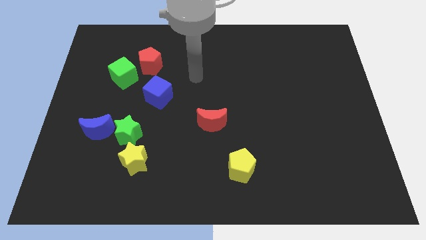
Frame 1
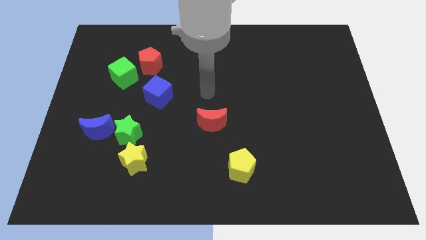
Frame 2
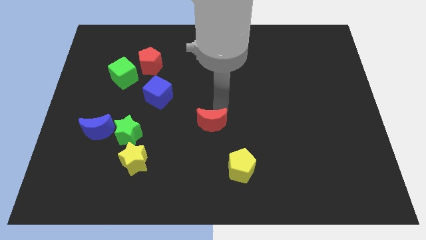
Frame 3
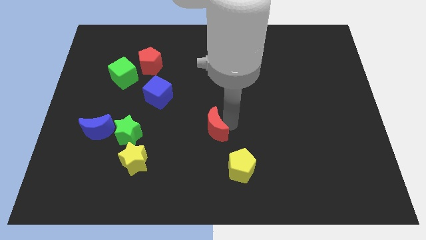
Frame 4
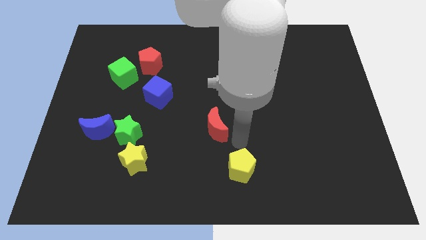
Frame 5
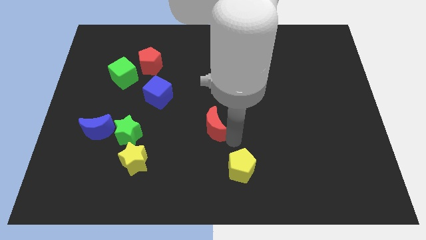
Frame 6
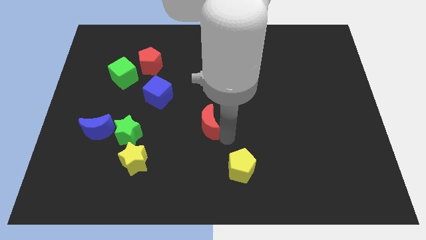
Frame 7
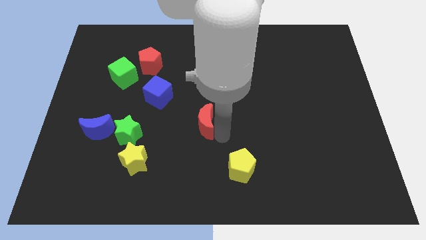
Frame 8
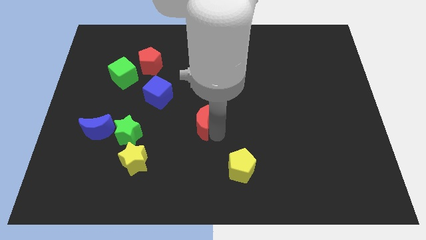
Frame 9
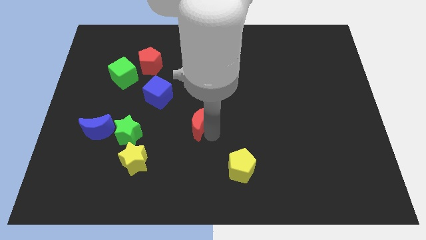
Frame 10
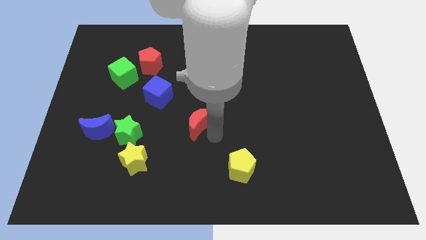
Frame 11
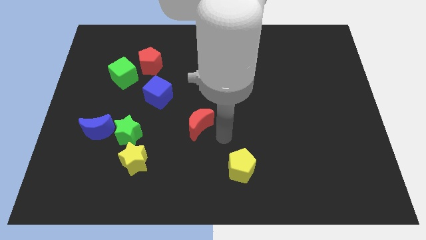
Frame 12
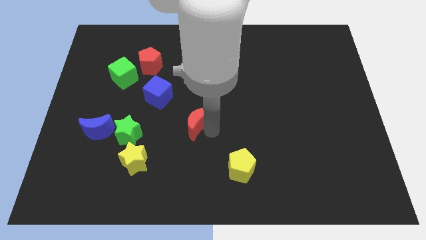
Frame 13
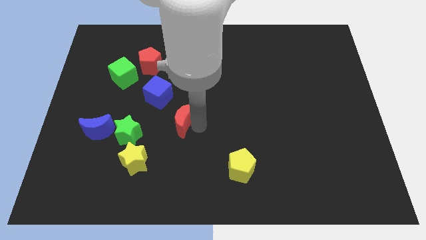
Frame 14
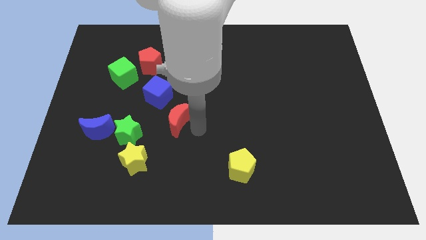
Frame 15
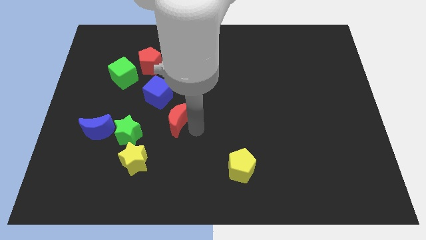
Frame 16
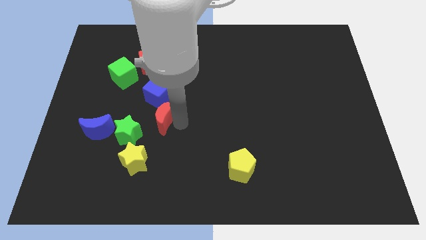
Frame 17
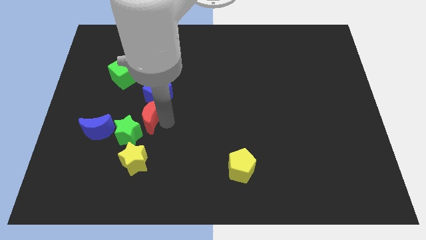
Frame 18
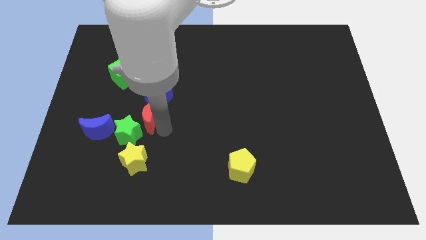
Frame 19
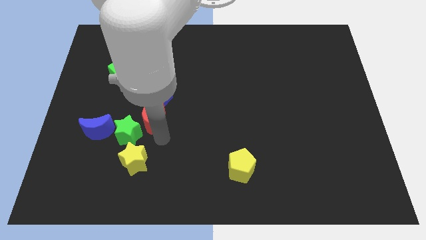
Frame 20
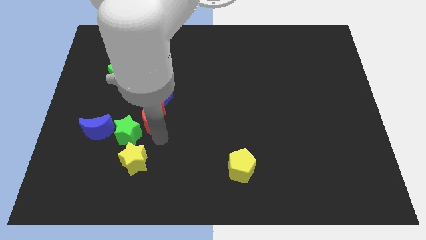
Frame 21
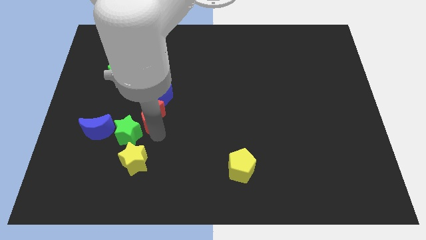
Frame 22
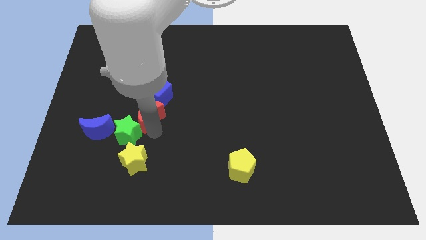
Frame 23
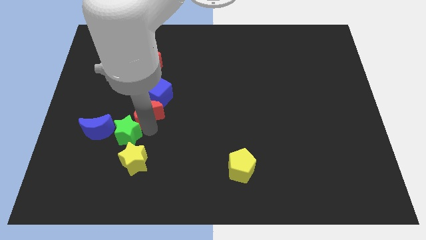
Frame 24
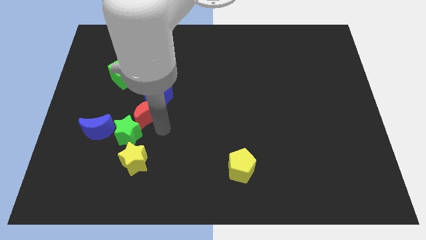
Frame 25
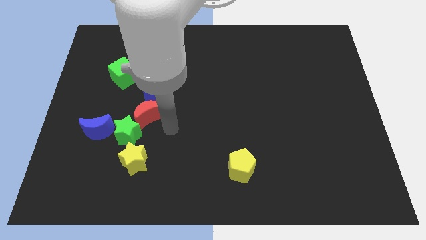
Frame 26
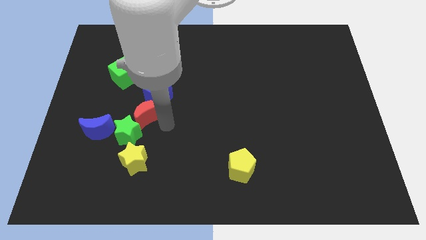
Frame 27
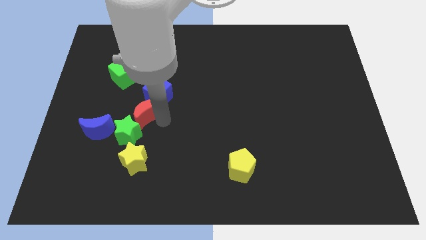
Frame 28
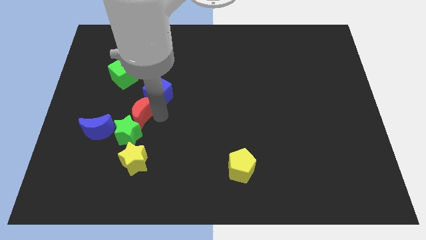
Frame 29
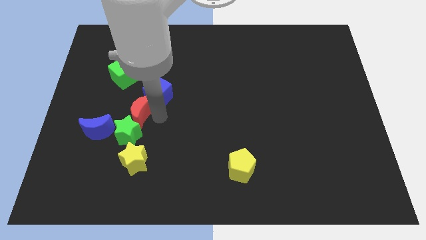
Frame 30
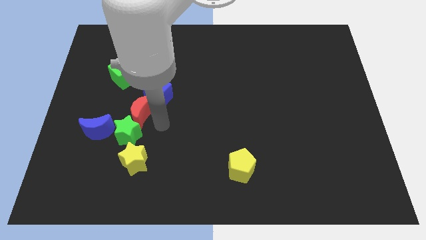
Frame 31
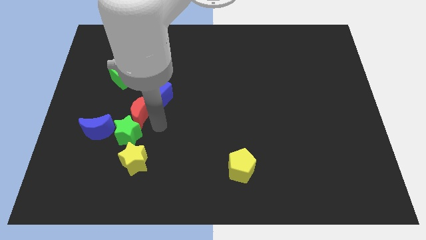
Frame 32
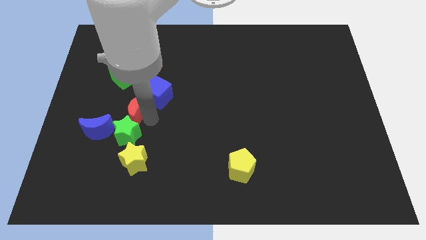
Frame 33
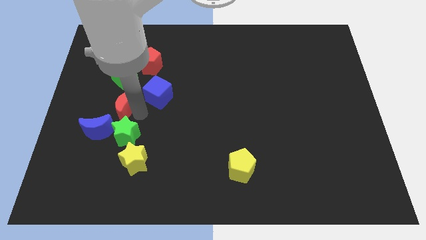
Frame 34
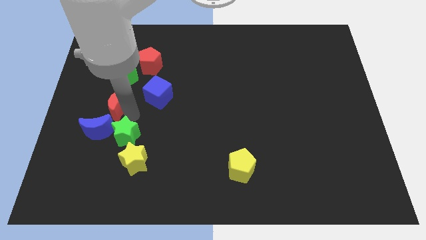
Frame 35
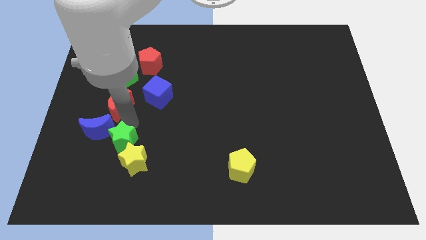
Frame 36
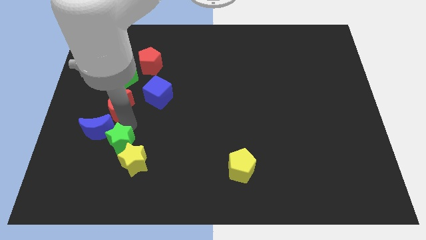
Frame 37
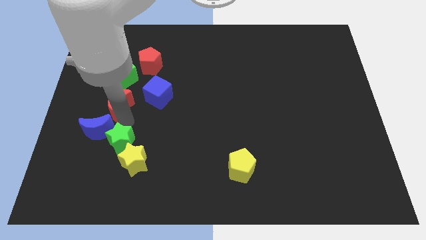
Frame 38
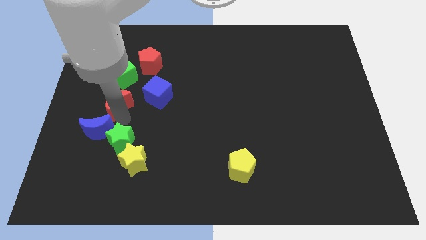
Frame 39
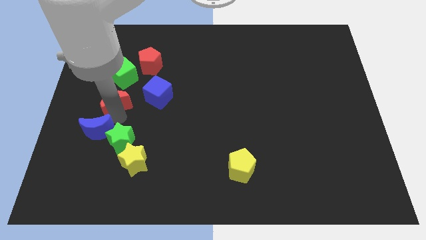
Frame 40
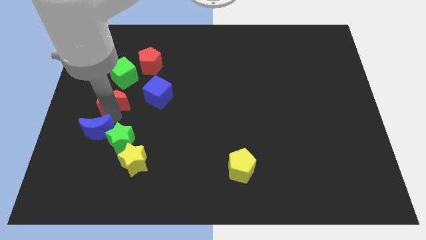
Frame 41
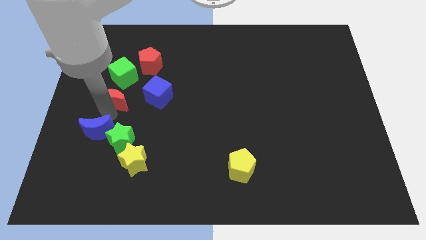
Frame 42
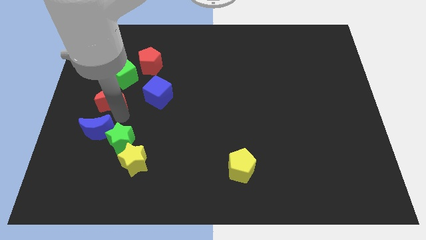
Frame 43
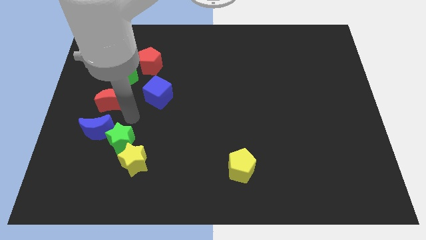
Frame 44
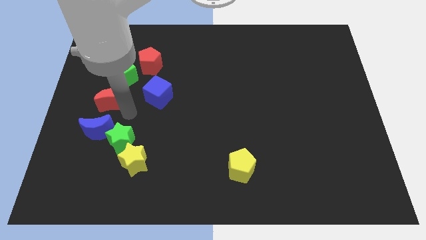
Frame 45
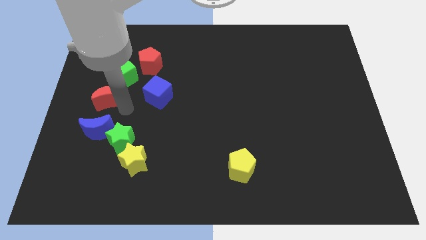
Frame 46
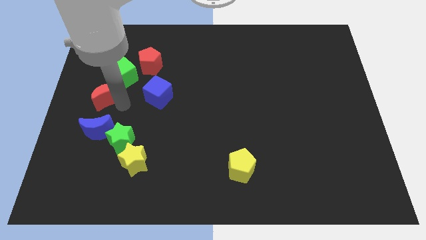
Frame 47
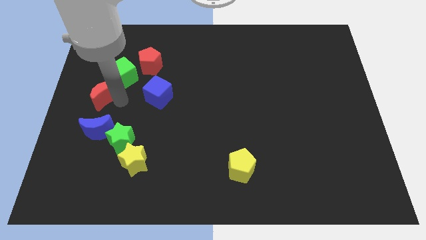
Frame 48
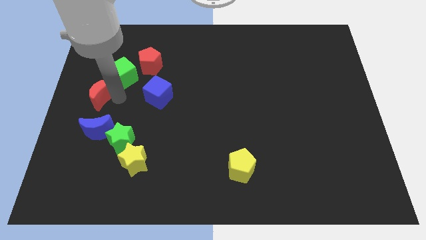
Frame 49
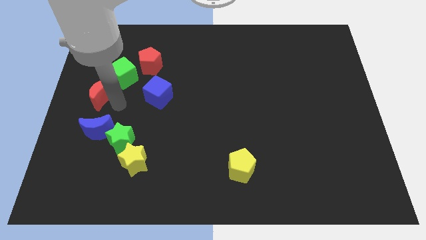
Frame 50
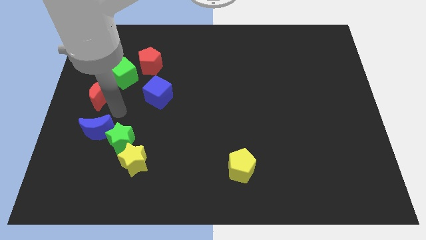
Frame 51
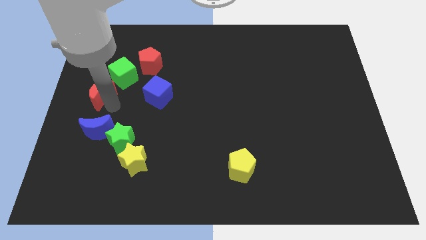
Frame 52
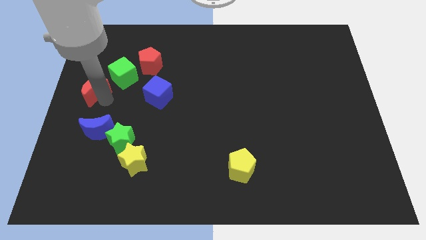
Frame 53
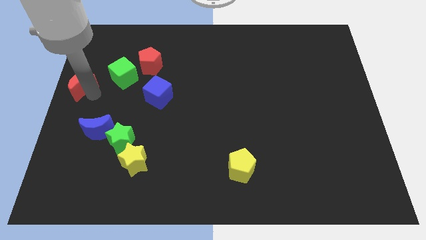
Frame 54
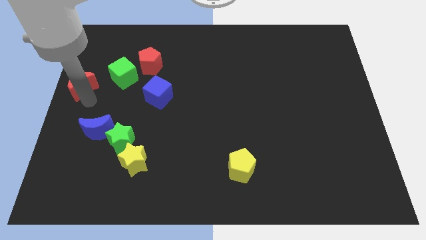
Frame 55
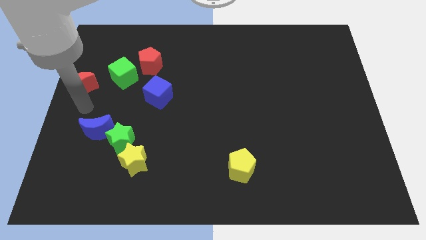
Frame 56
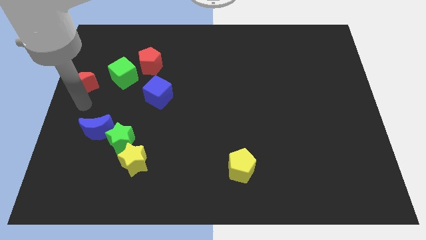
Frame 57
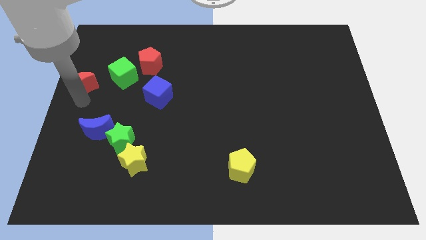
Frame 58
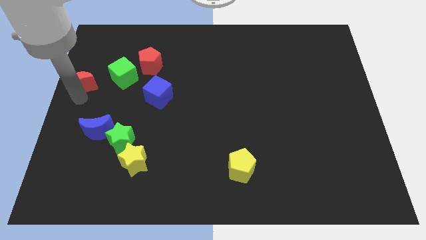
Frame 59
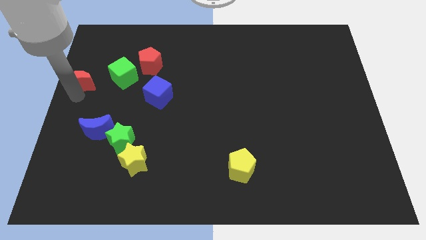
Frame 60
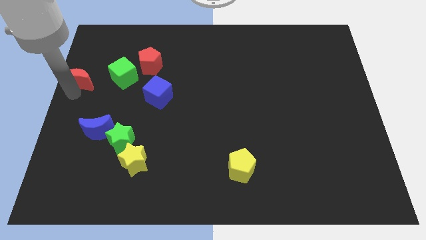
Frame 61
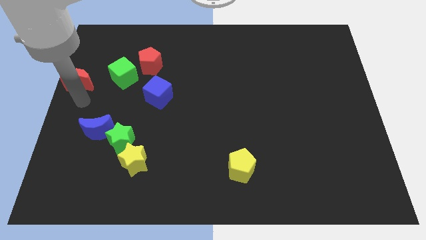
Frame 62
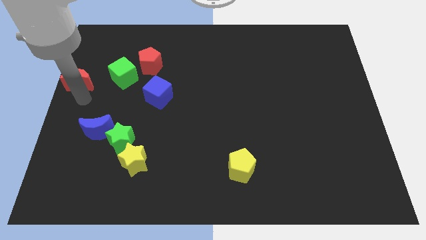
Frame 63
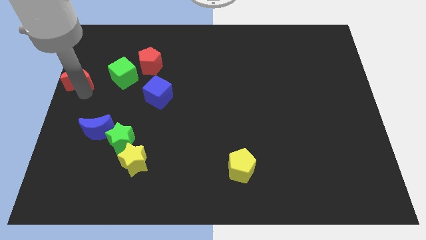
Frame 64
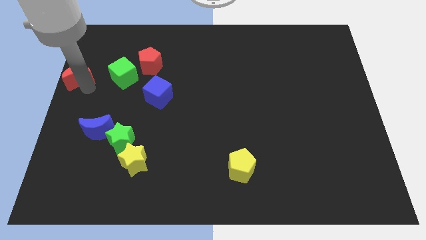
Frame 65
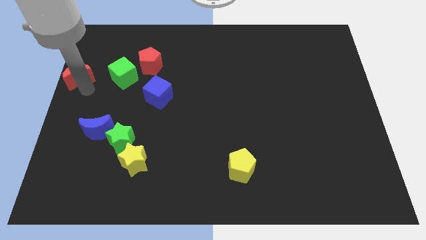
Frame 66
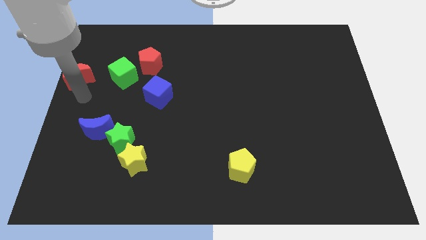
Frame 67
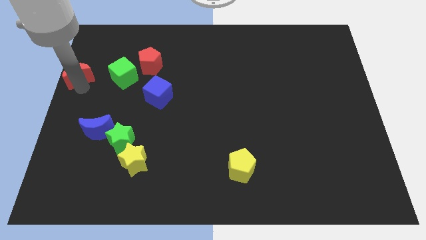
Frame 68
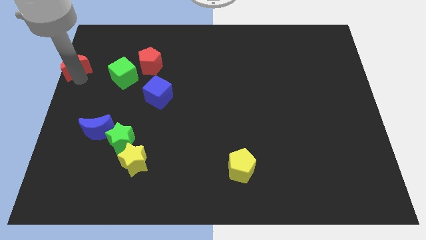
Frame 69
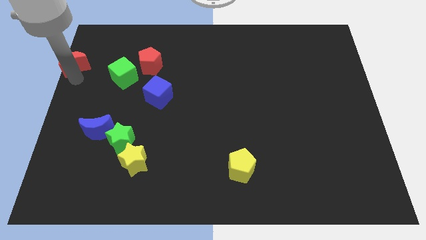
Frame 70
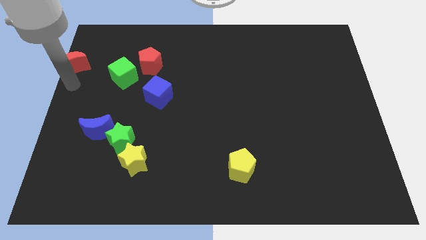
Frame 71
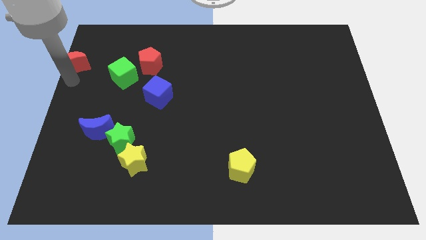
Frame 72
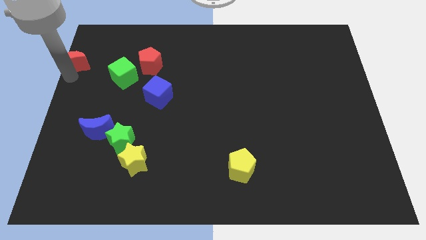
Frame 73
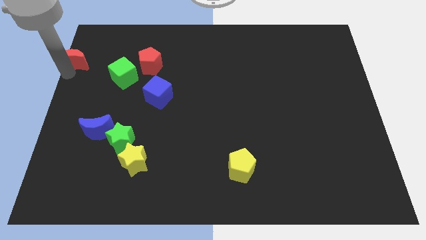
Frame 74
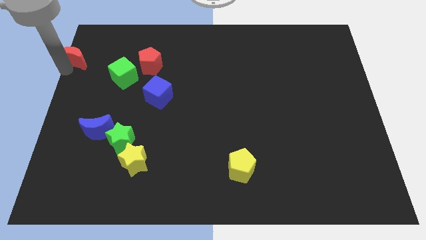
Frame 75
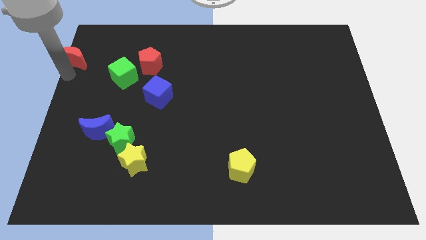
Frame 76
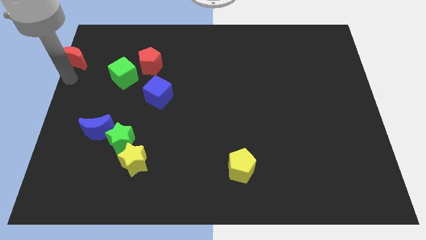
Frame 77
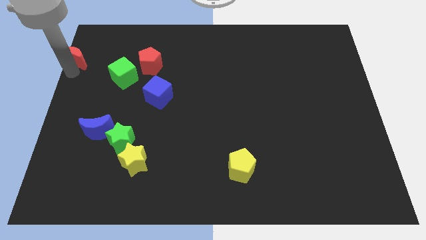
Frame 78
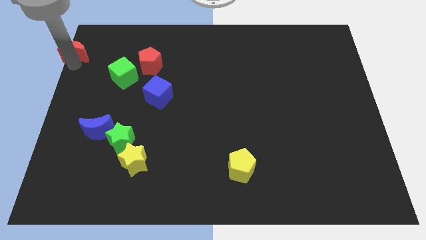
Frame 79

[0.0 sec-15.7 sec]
put the red moon to the top left of the board

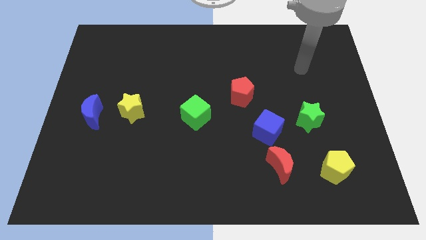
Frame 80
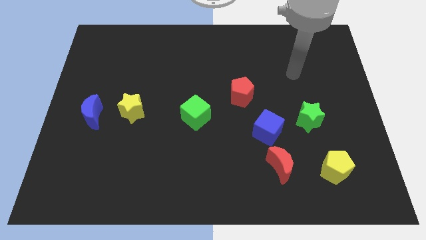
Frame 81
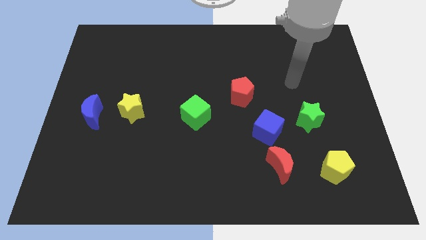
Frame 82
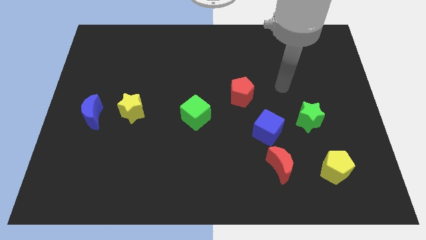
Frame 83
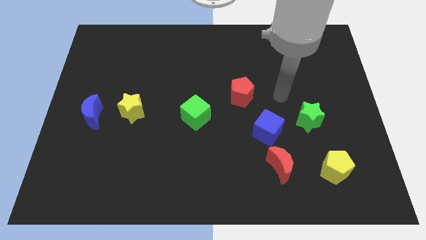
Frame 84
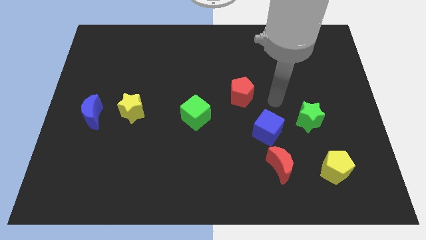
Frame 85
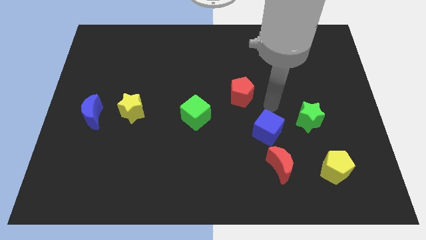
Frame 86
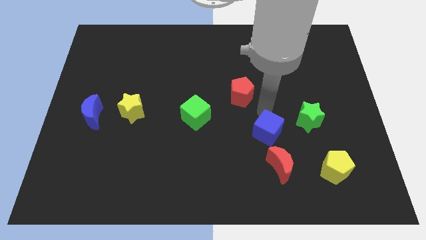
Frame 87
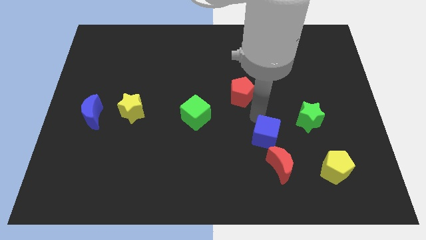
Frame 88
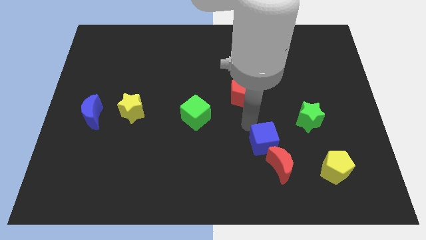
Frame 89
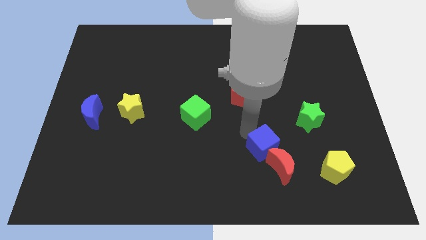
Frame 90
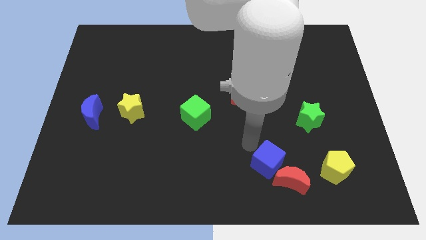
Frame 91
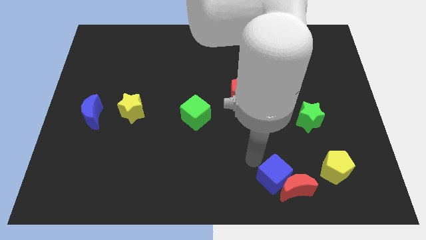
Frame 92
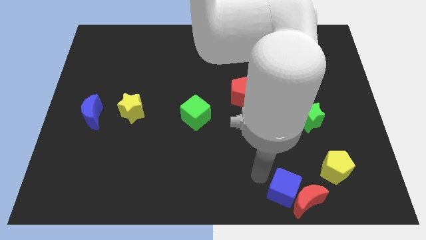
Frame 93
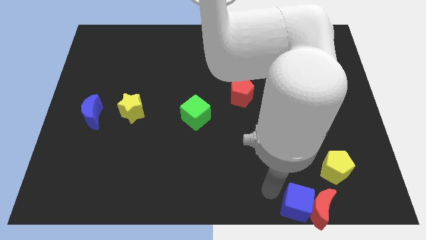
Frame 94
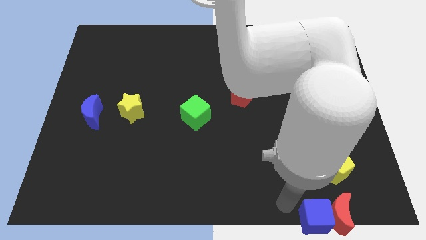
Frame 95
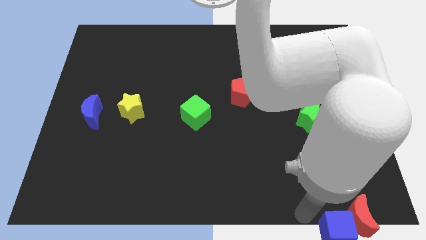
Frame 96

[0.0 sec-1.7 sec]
push the red moon to the bottom right of the board
